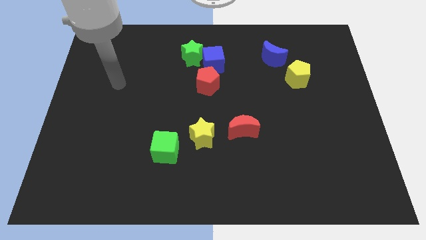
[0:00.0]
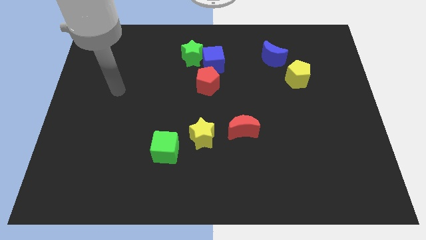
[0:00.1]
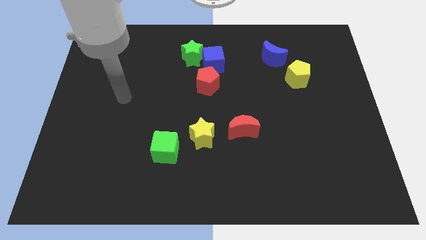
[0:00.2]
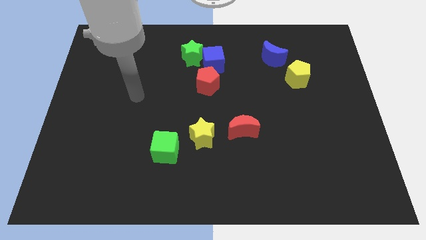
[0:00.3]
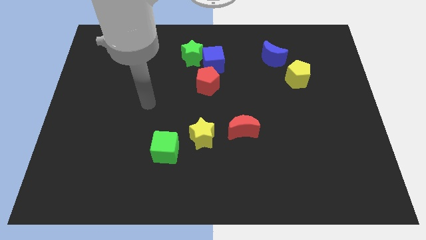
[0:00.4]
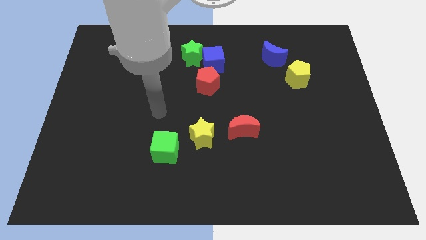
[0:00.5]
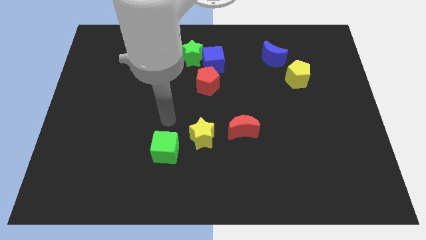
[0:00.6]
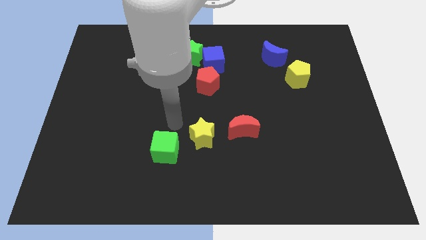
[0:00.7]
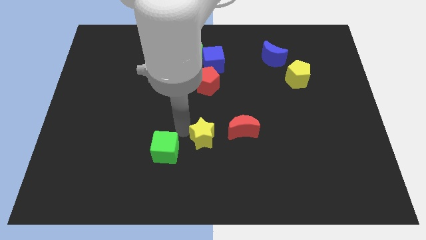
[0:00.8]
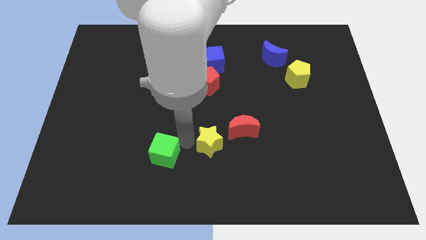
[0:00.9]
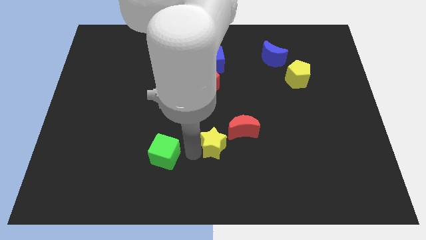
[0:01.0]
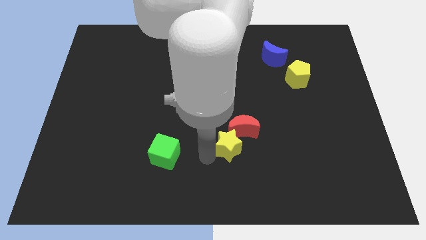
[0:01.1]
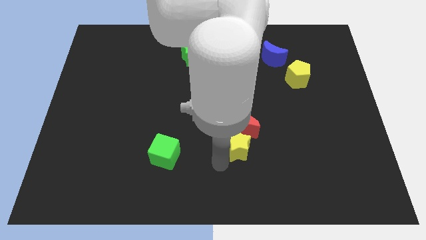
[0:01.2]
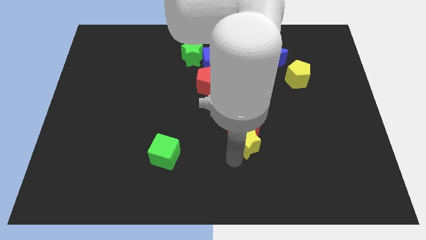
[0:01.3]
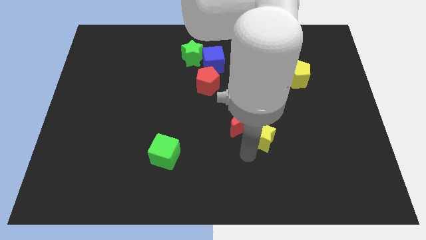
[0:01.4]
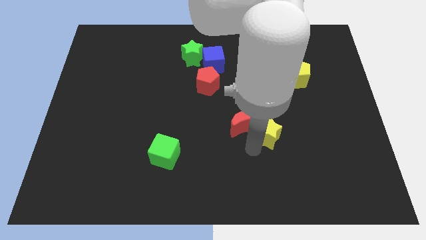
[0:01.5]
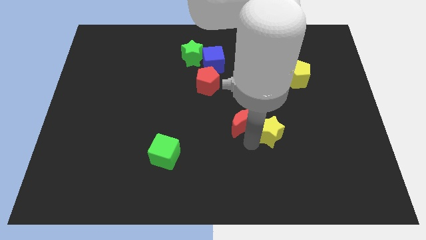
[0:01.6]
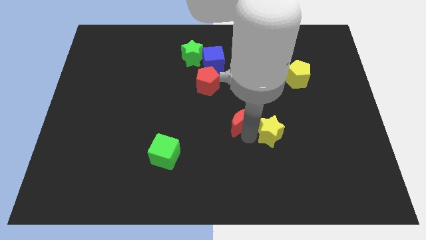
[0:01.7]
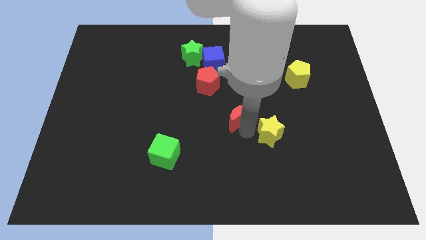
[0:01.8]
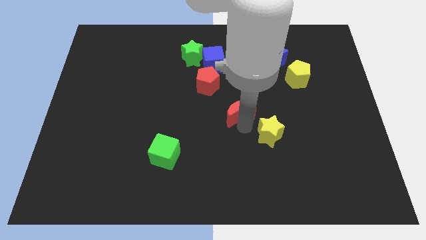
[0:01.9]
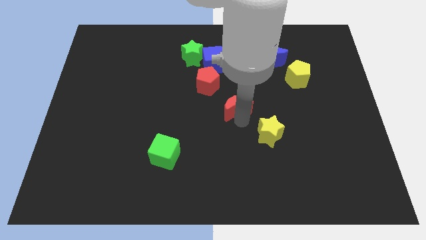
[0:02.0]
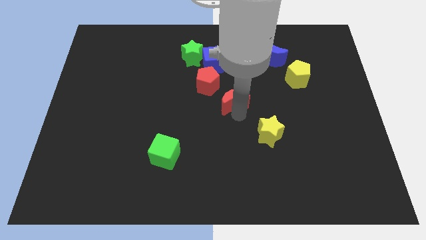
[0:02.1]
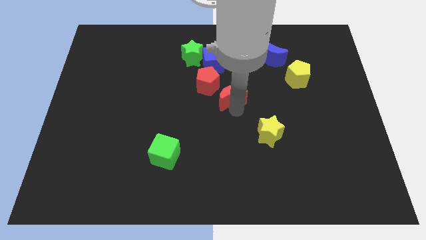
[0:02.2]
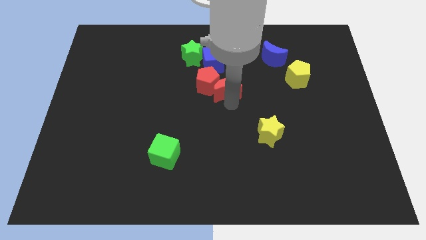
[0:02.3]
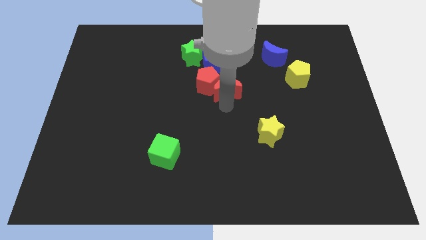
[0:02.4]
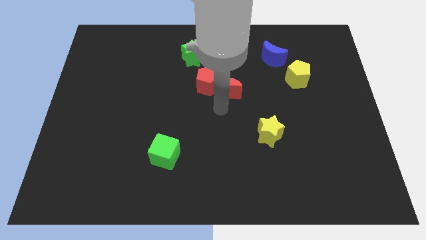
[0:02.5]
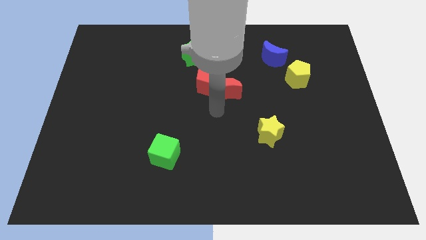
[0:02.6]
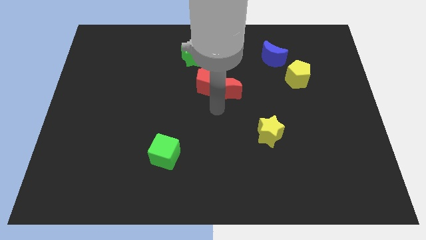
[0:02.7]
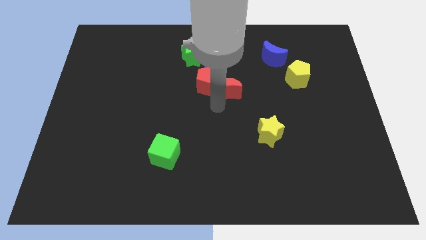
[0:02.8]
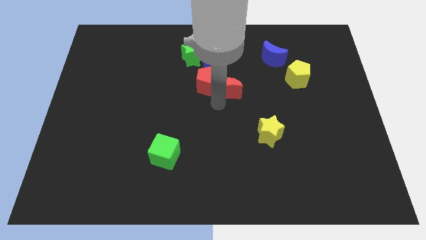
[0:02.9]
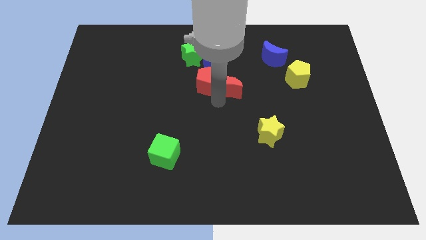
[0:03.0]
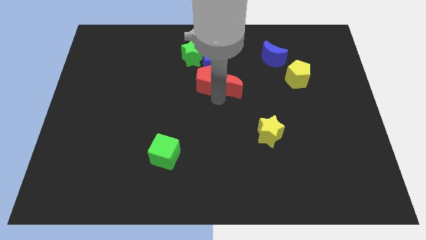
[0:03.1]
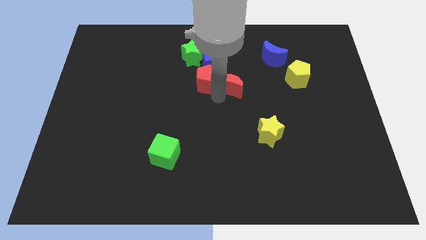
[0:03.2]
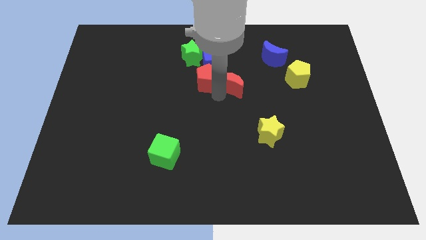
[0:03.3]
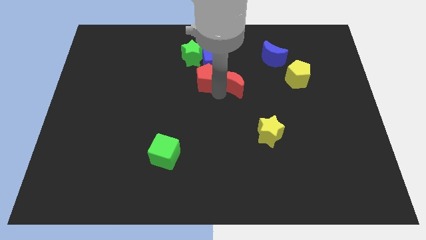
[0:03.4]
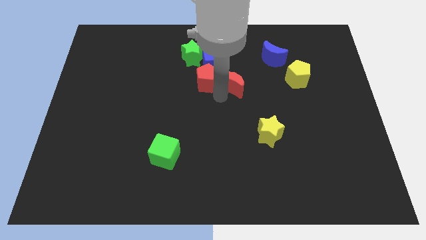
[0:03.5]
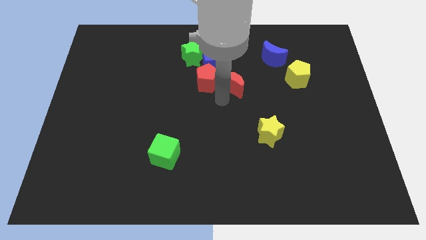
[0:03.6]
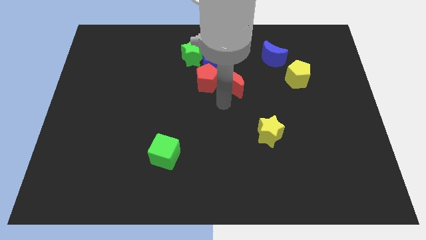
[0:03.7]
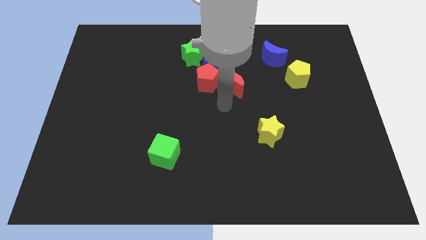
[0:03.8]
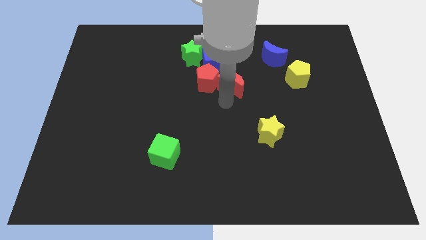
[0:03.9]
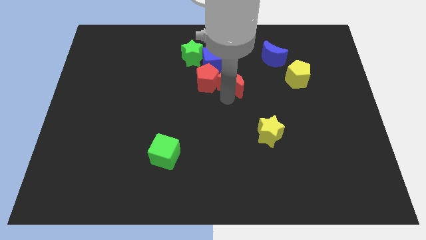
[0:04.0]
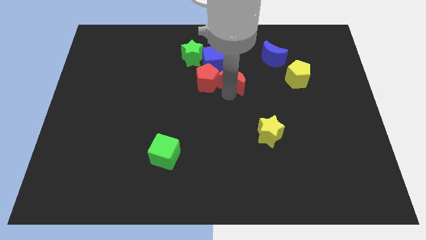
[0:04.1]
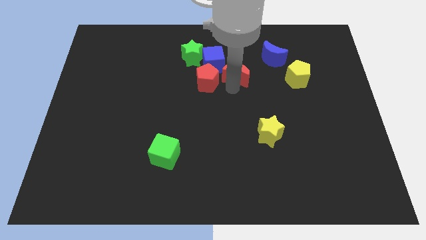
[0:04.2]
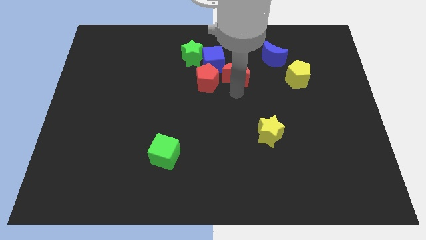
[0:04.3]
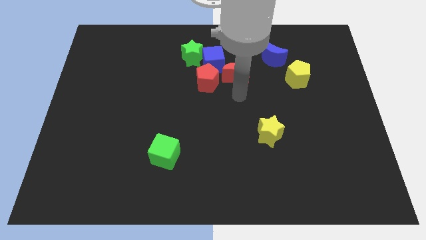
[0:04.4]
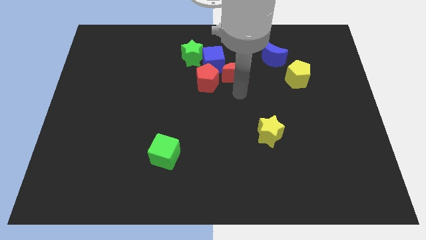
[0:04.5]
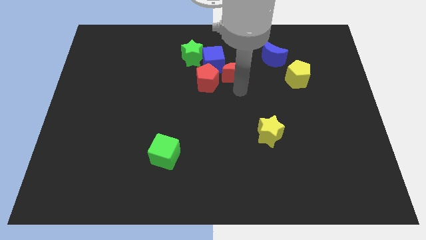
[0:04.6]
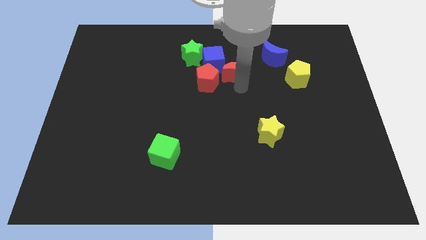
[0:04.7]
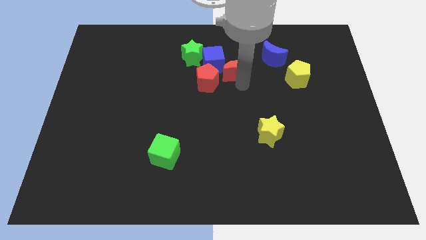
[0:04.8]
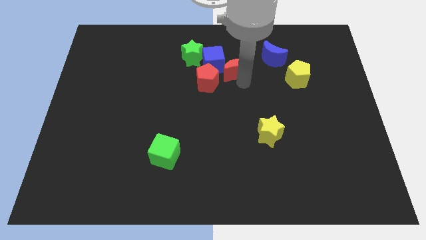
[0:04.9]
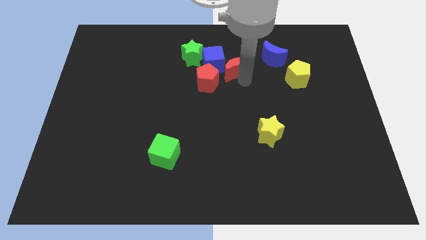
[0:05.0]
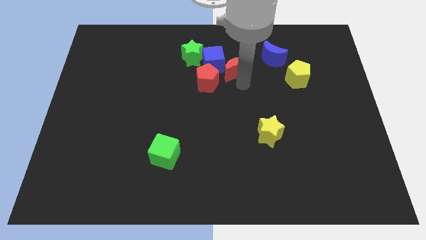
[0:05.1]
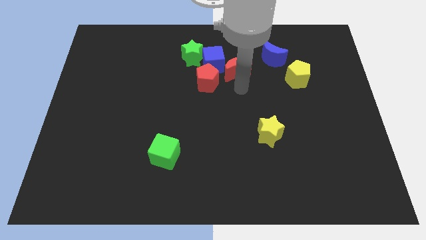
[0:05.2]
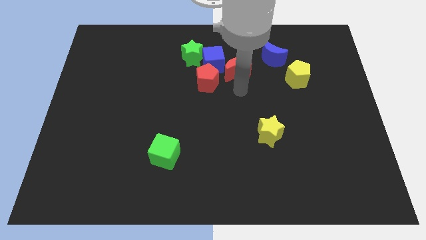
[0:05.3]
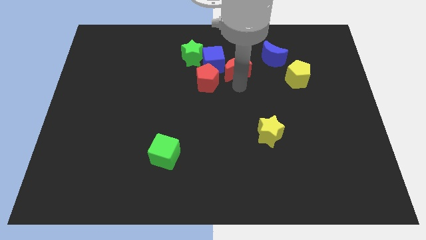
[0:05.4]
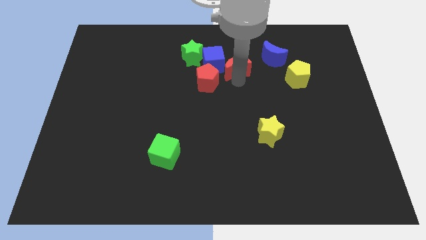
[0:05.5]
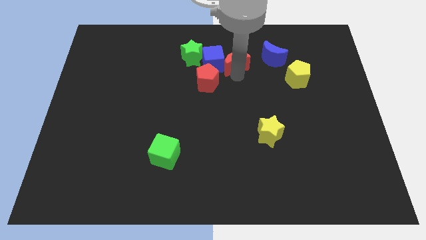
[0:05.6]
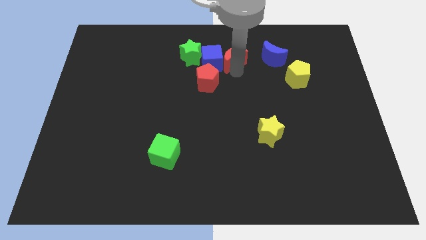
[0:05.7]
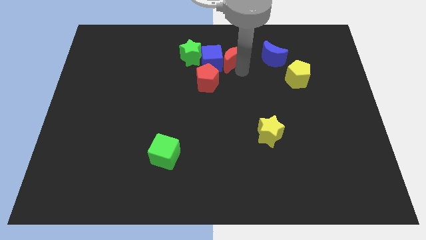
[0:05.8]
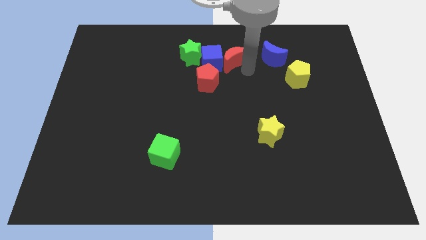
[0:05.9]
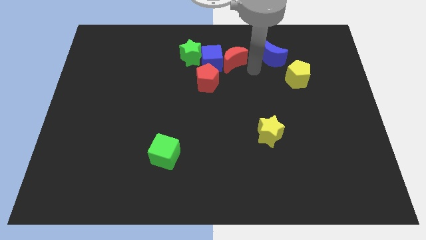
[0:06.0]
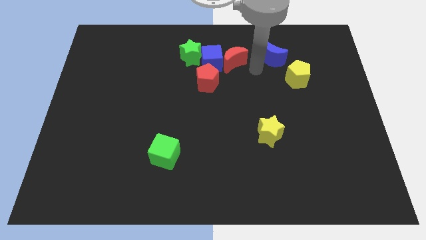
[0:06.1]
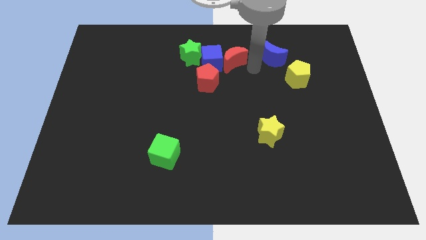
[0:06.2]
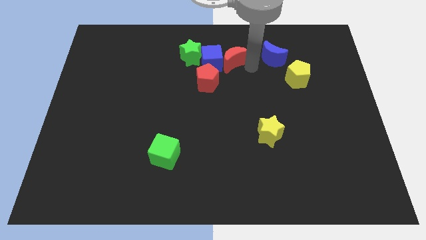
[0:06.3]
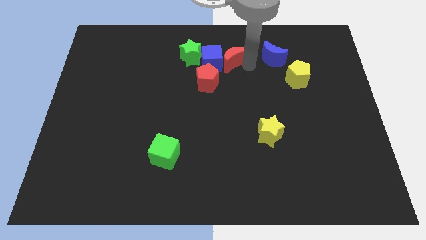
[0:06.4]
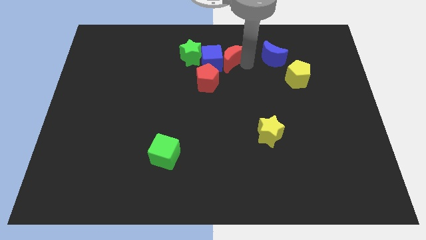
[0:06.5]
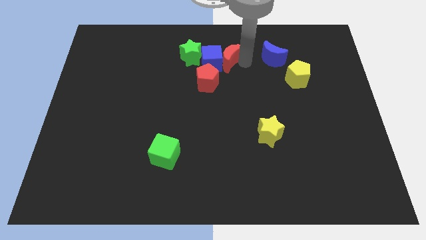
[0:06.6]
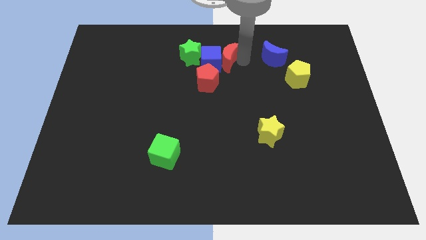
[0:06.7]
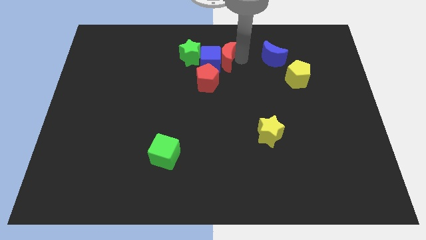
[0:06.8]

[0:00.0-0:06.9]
slide the red moon to the top of the red pentagon

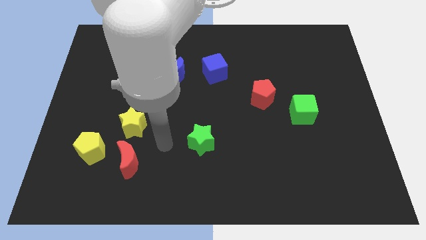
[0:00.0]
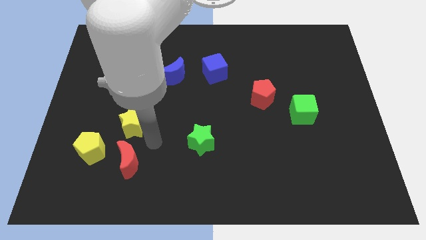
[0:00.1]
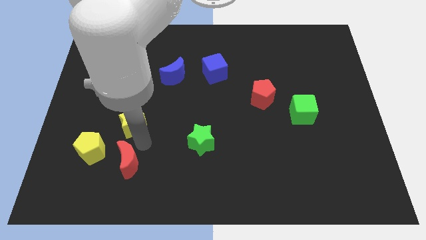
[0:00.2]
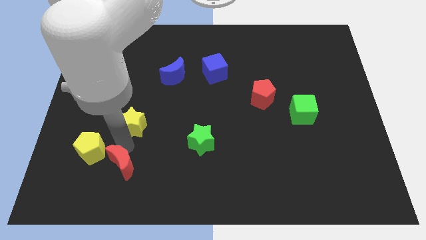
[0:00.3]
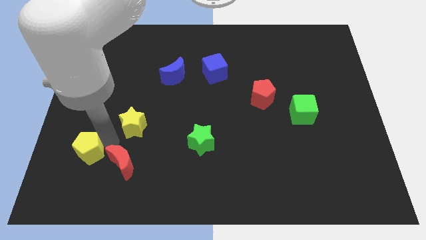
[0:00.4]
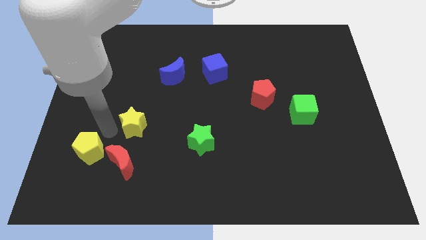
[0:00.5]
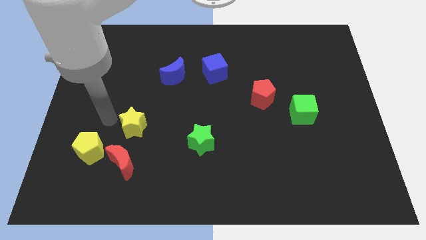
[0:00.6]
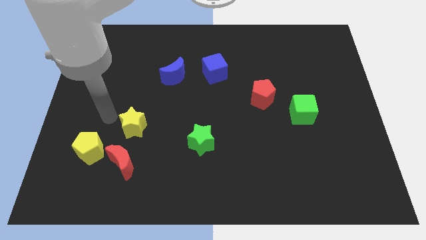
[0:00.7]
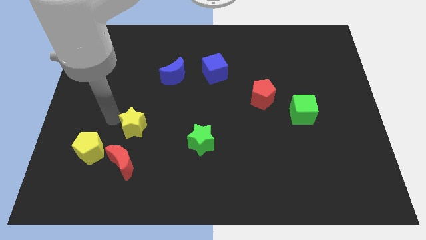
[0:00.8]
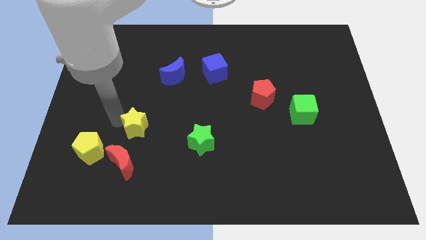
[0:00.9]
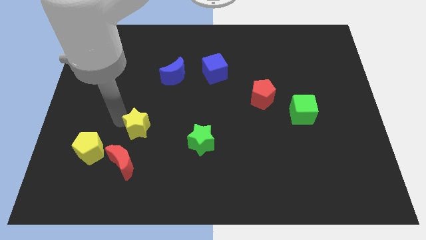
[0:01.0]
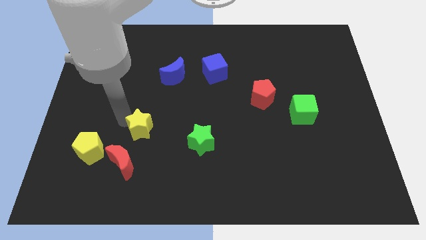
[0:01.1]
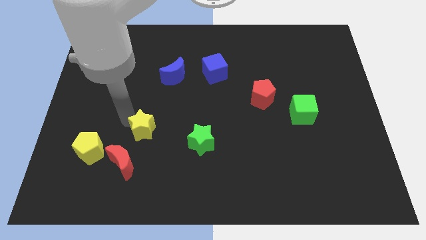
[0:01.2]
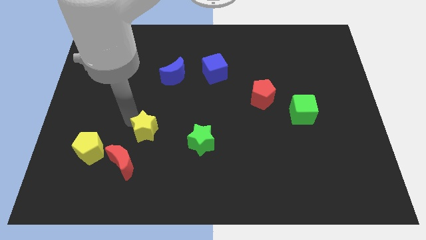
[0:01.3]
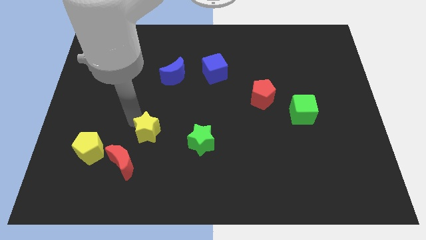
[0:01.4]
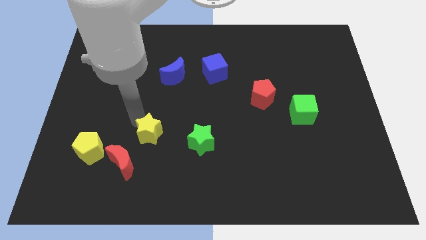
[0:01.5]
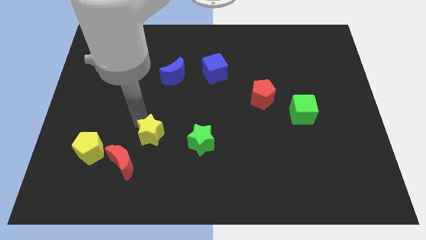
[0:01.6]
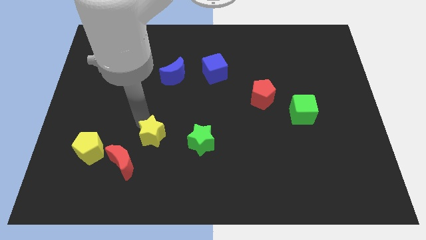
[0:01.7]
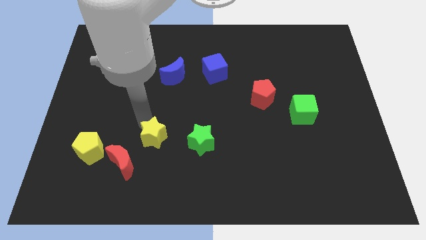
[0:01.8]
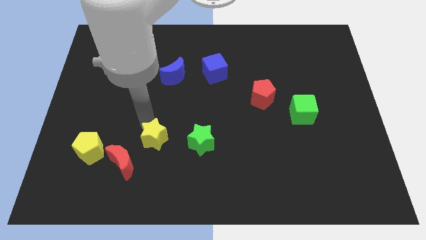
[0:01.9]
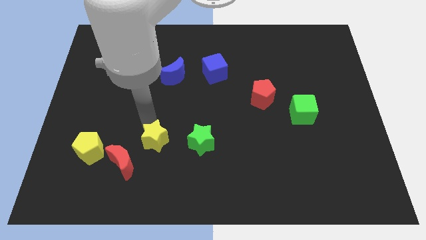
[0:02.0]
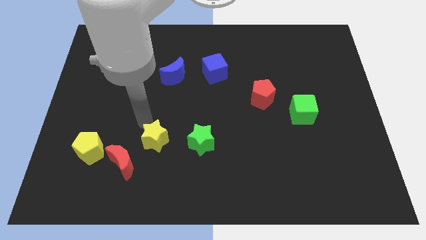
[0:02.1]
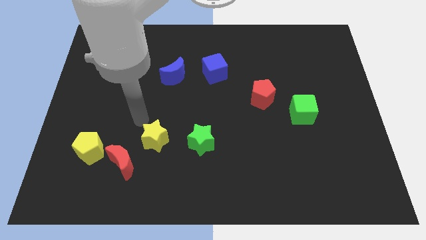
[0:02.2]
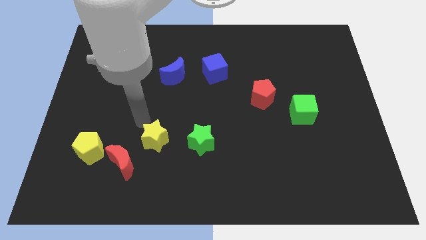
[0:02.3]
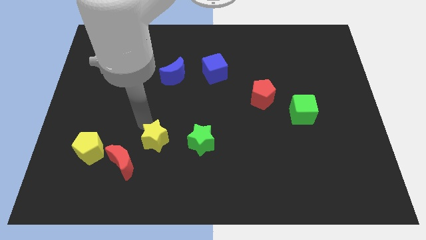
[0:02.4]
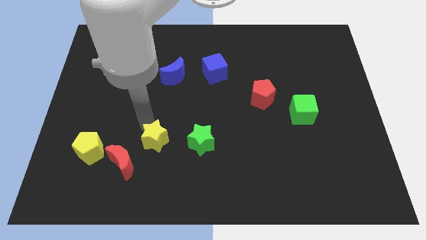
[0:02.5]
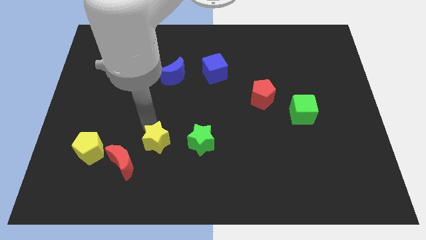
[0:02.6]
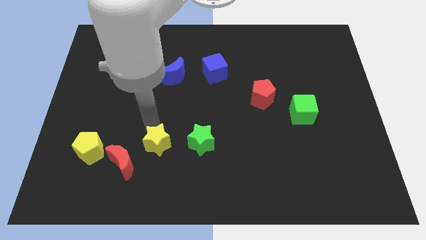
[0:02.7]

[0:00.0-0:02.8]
slide the yellow star just right of the red moon
